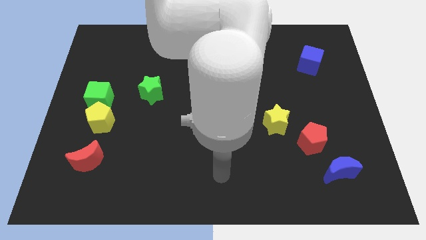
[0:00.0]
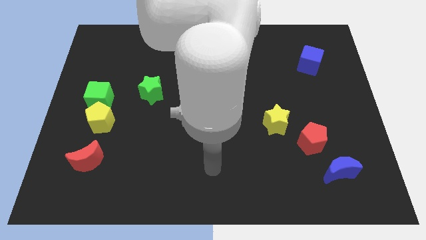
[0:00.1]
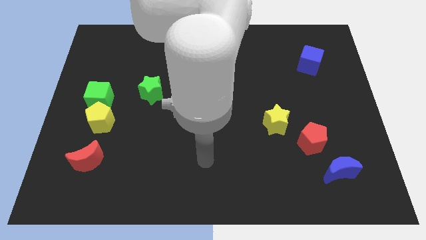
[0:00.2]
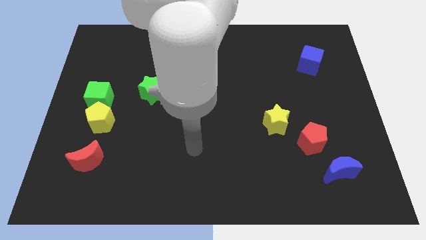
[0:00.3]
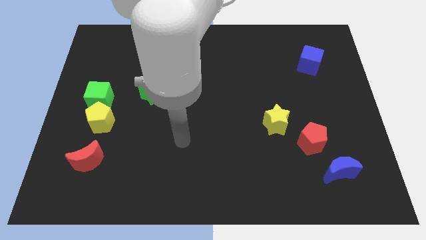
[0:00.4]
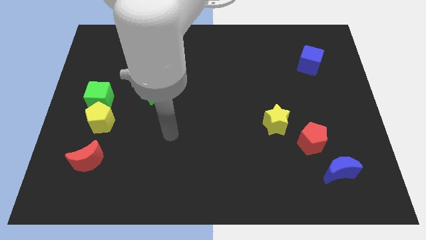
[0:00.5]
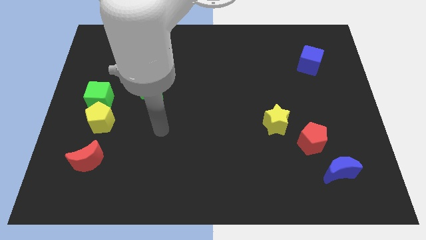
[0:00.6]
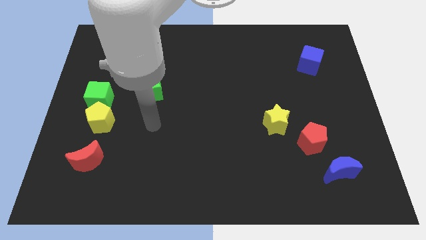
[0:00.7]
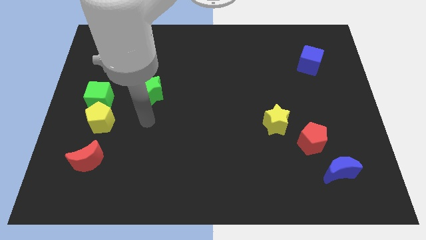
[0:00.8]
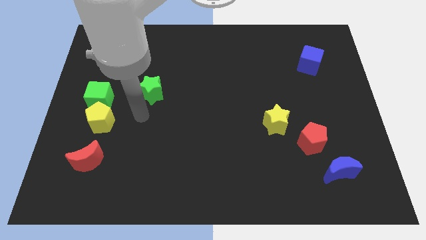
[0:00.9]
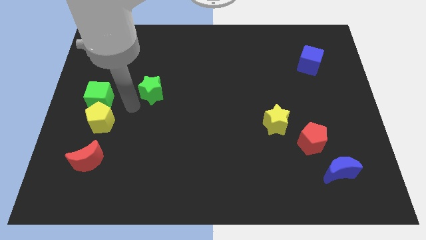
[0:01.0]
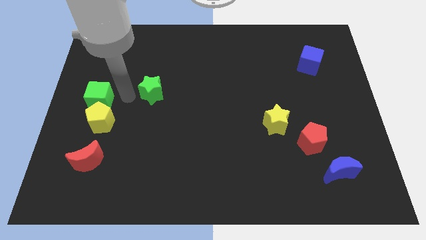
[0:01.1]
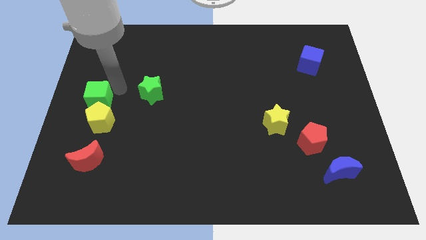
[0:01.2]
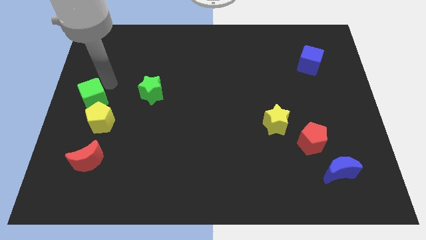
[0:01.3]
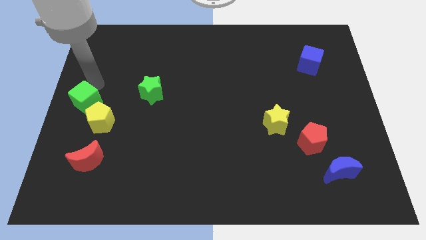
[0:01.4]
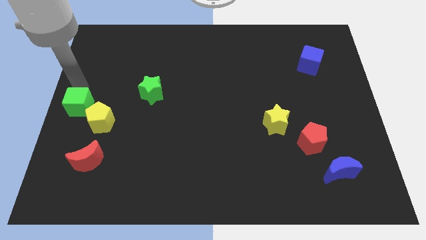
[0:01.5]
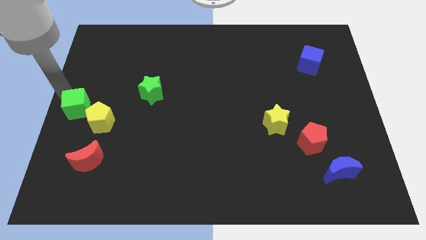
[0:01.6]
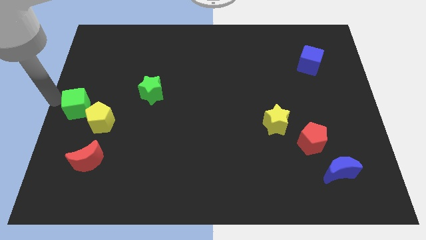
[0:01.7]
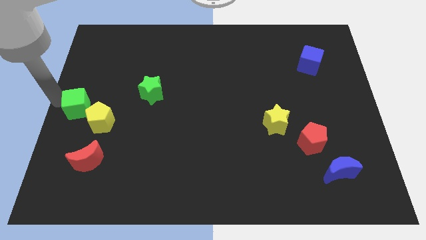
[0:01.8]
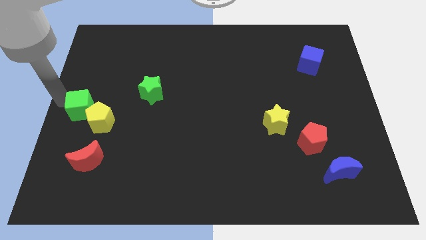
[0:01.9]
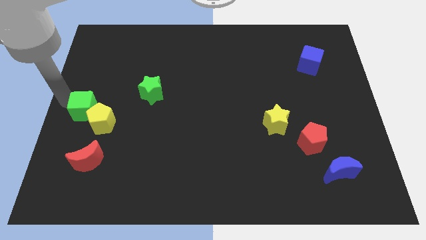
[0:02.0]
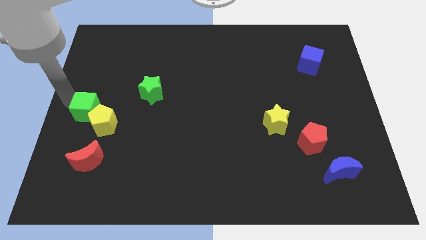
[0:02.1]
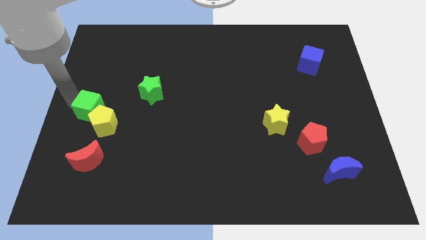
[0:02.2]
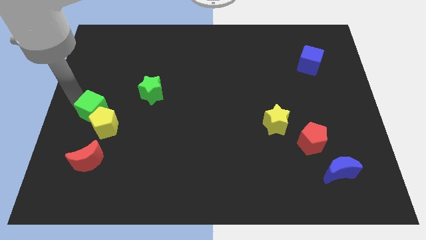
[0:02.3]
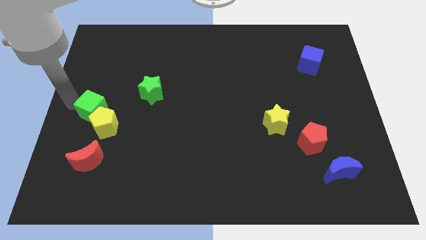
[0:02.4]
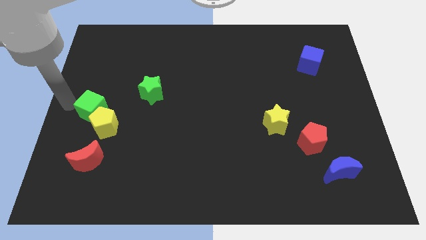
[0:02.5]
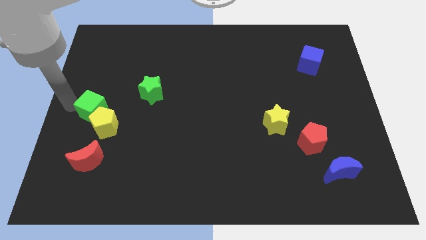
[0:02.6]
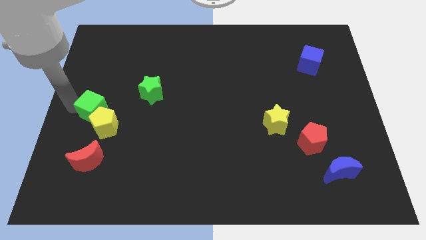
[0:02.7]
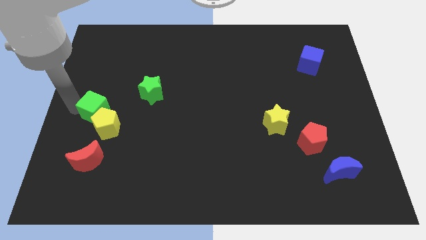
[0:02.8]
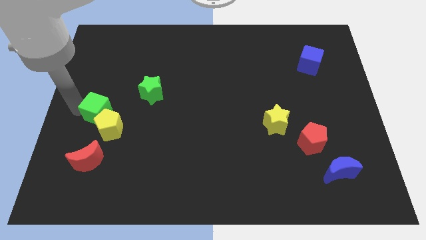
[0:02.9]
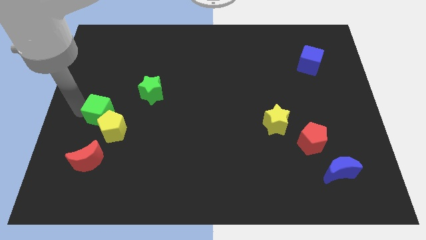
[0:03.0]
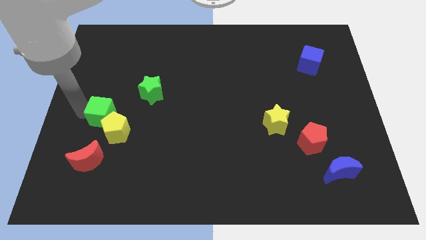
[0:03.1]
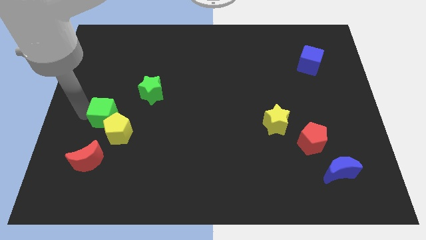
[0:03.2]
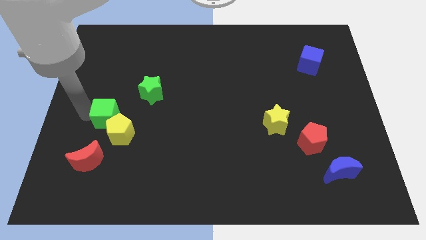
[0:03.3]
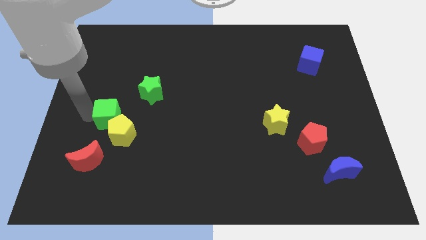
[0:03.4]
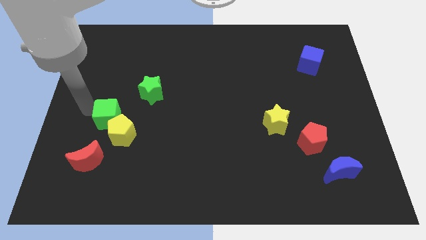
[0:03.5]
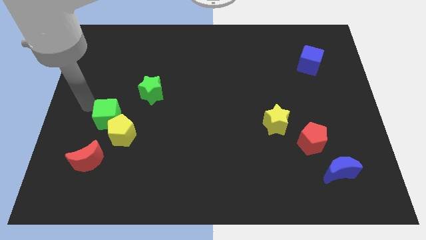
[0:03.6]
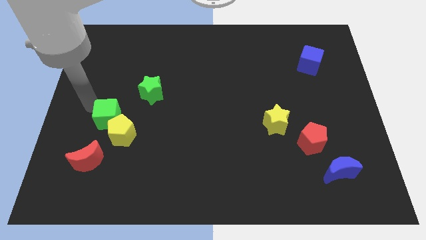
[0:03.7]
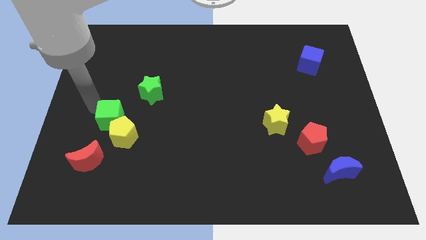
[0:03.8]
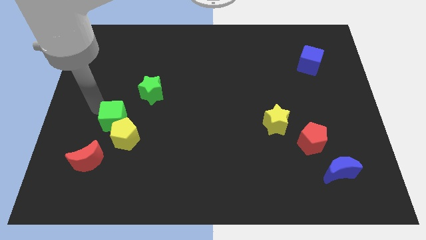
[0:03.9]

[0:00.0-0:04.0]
slide the green cube somewhat downwards and right diagonally

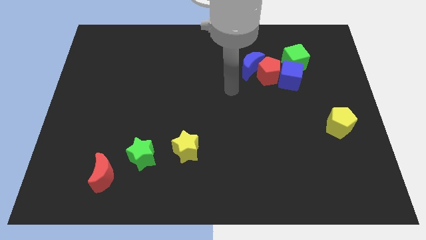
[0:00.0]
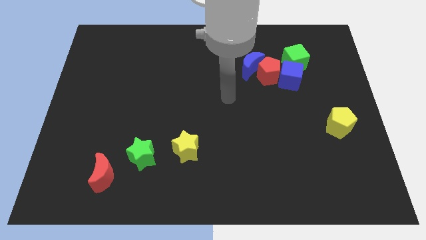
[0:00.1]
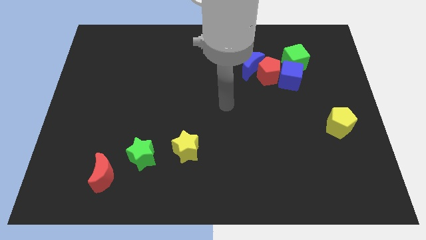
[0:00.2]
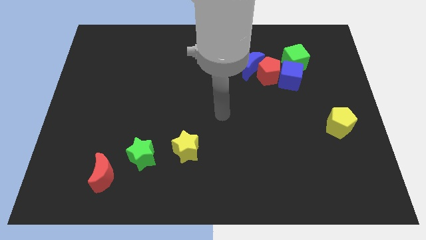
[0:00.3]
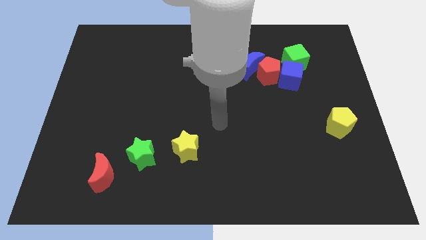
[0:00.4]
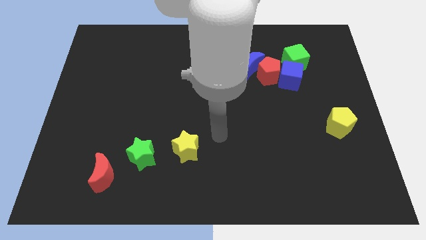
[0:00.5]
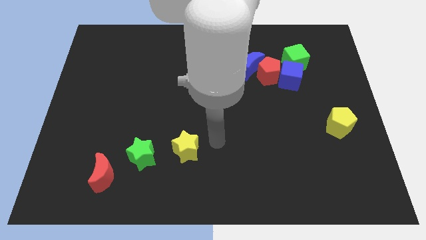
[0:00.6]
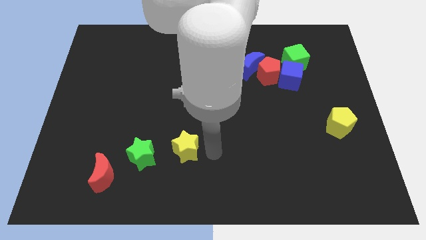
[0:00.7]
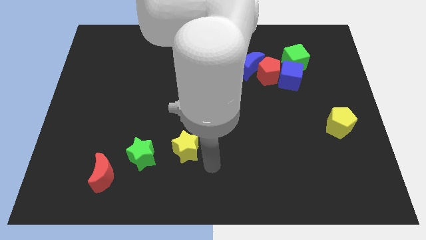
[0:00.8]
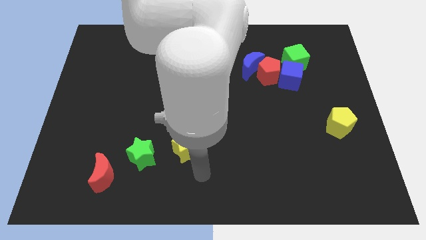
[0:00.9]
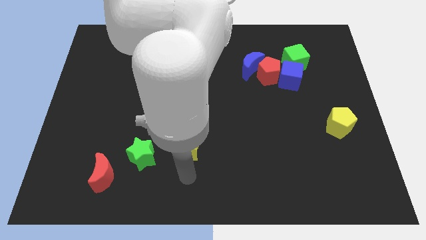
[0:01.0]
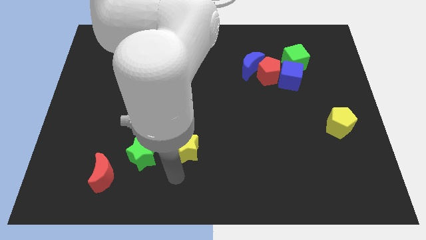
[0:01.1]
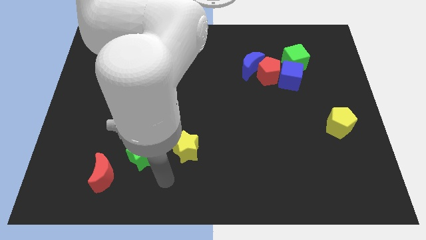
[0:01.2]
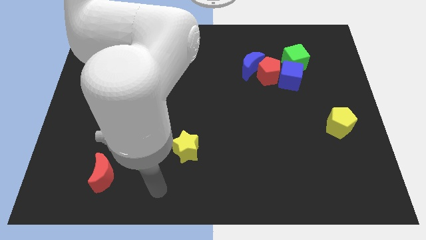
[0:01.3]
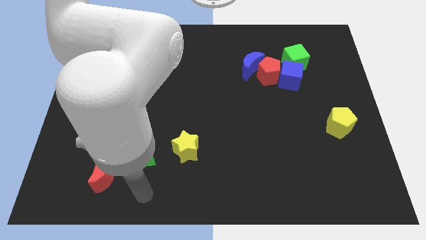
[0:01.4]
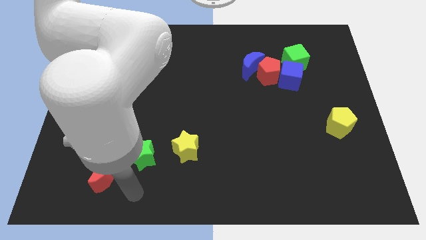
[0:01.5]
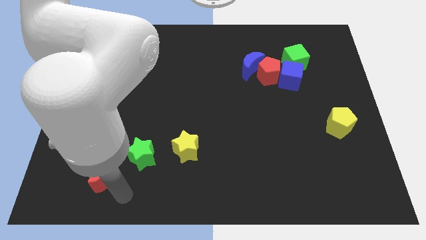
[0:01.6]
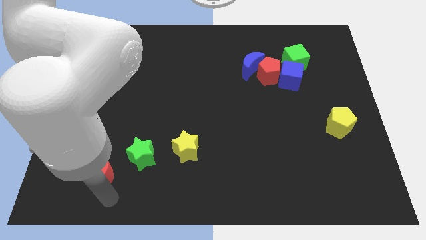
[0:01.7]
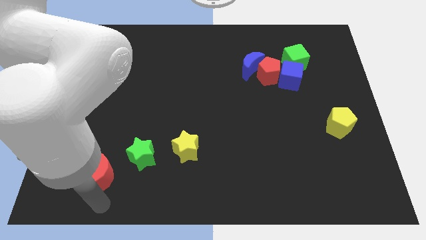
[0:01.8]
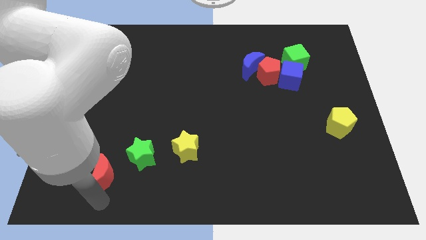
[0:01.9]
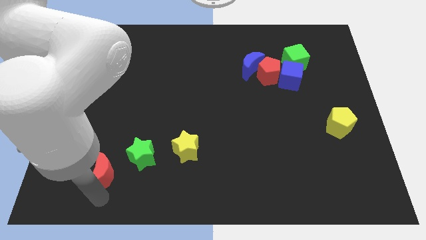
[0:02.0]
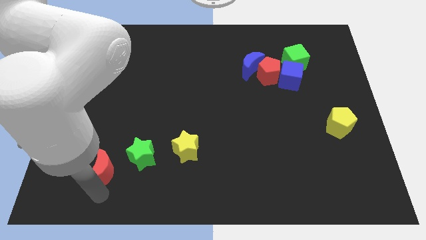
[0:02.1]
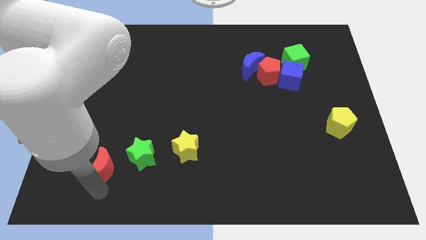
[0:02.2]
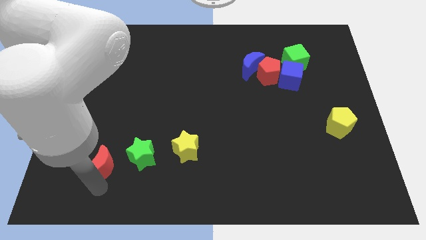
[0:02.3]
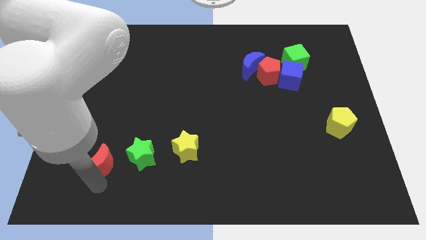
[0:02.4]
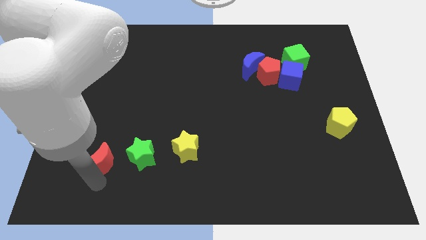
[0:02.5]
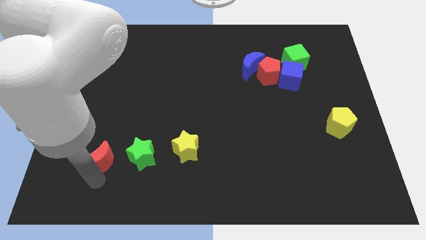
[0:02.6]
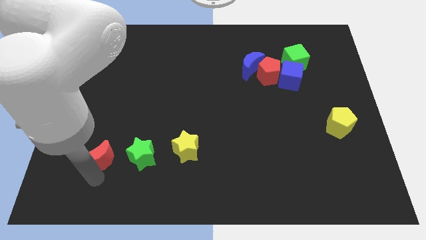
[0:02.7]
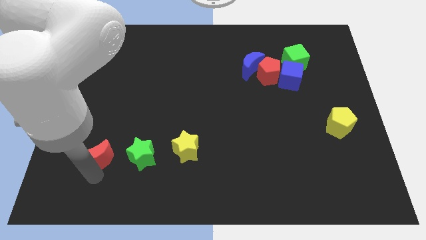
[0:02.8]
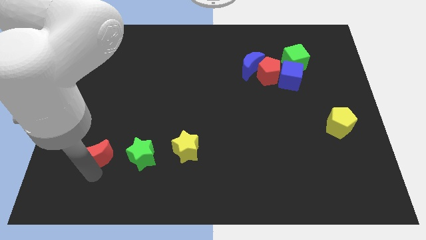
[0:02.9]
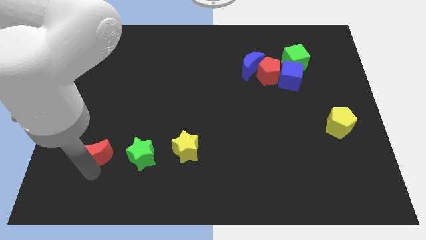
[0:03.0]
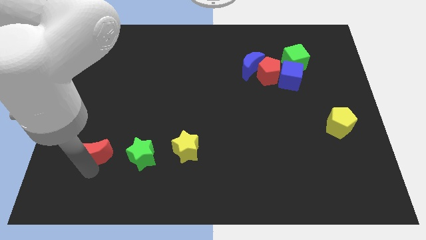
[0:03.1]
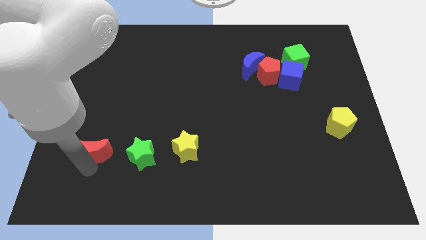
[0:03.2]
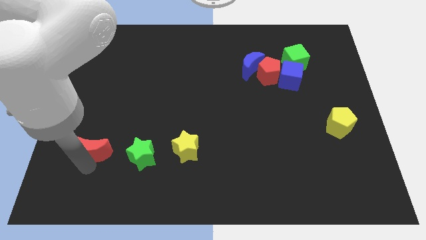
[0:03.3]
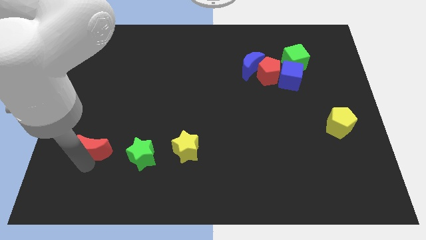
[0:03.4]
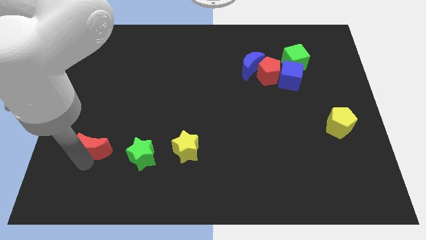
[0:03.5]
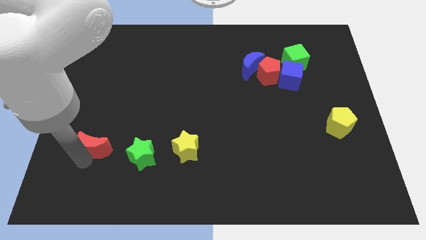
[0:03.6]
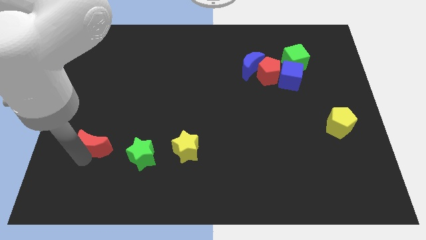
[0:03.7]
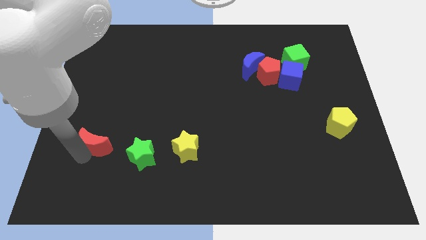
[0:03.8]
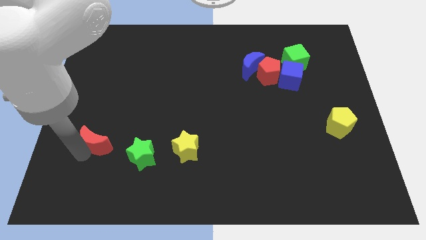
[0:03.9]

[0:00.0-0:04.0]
move the red moon slightly up
